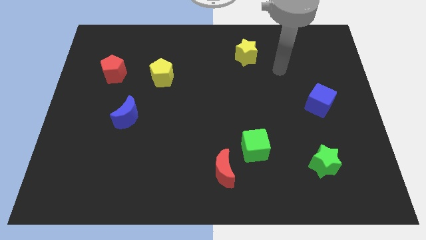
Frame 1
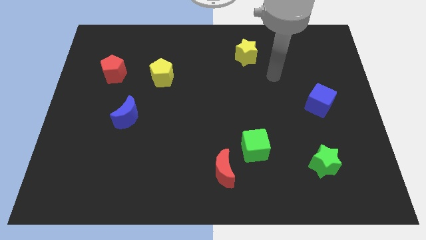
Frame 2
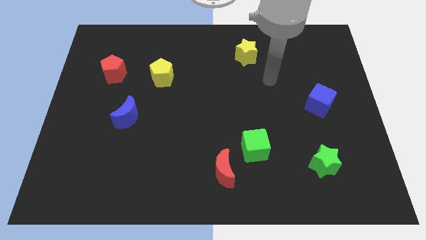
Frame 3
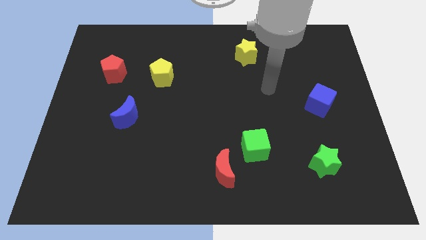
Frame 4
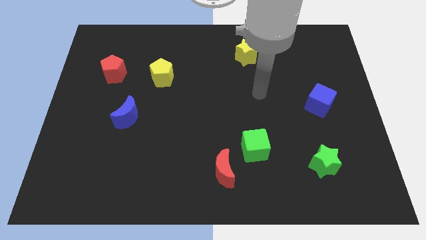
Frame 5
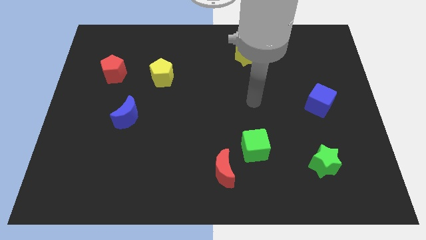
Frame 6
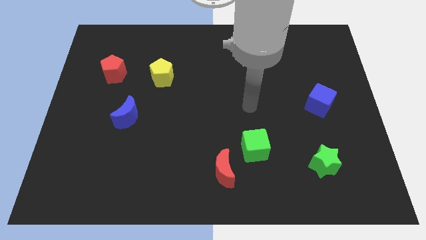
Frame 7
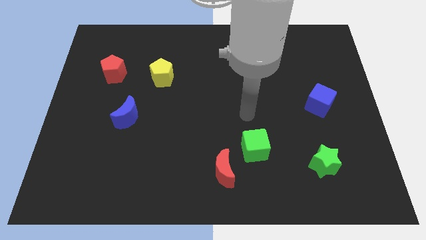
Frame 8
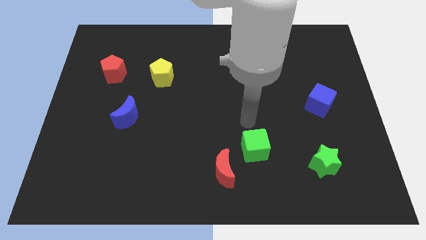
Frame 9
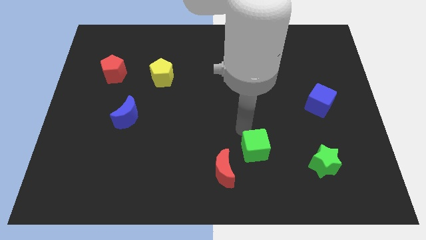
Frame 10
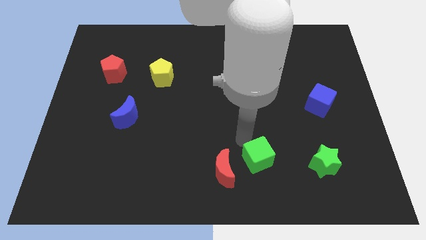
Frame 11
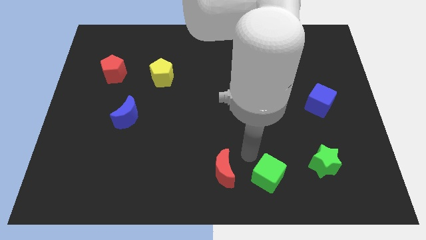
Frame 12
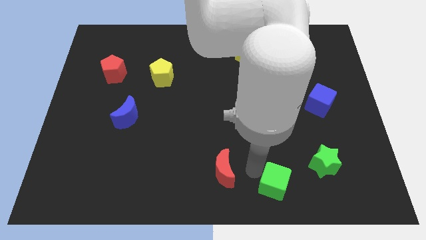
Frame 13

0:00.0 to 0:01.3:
pull the red moon apart from the green cube

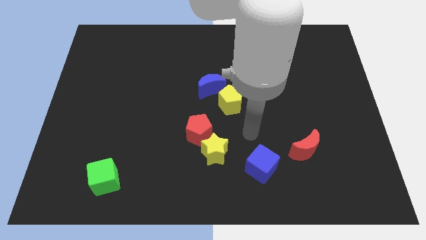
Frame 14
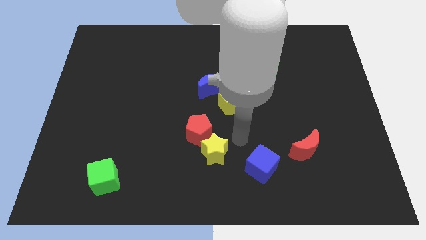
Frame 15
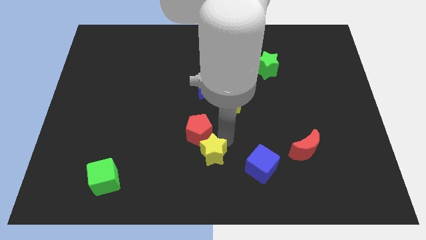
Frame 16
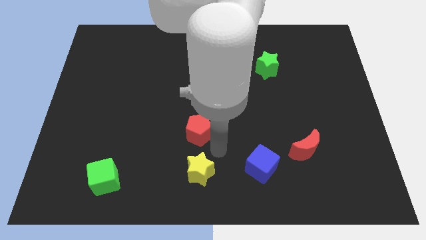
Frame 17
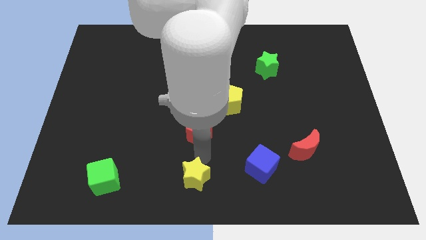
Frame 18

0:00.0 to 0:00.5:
pull the red pentagon apart from the yellow star

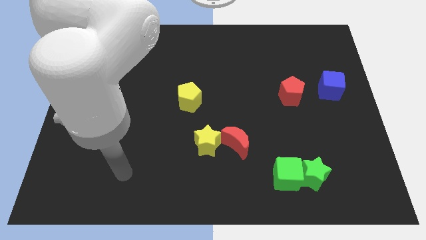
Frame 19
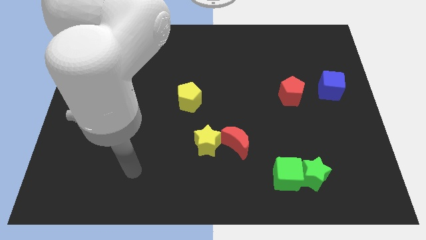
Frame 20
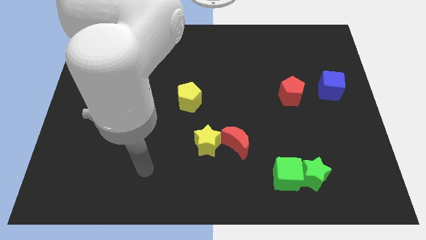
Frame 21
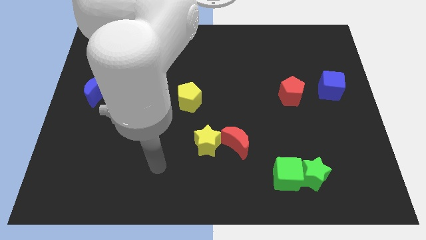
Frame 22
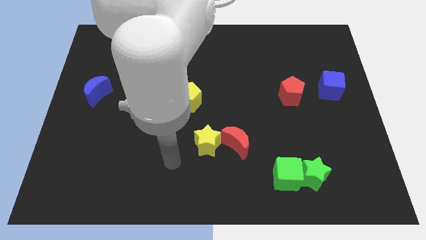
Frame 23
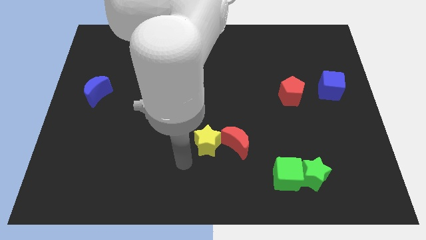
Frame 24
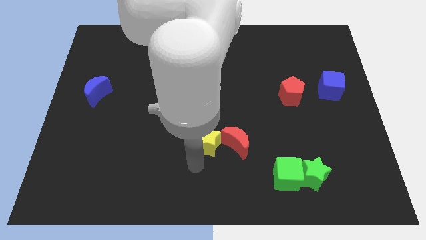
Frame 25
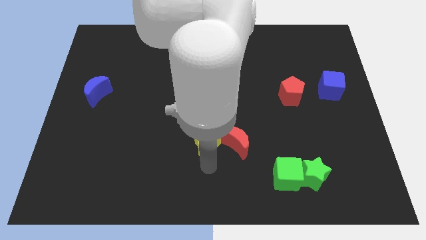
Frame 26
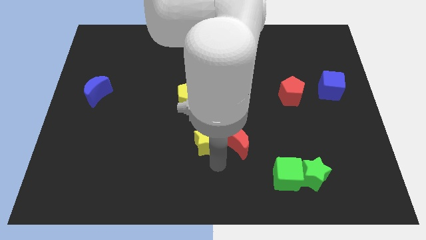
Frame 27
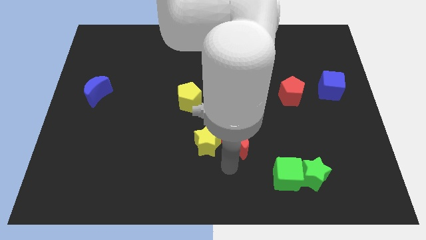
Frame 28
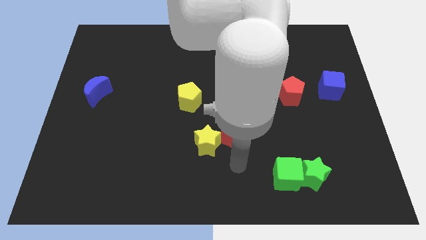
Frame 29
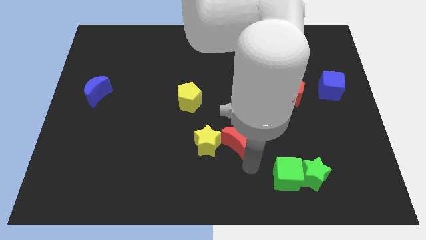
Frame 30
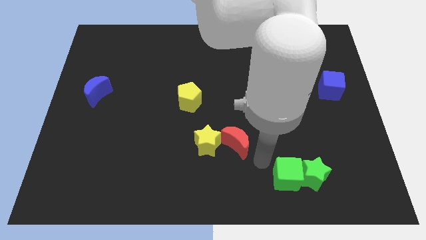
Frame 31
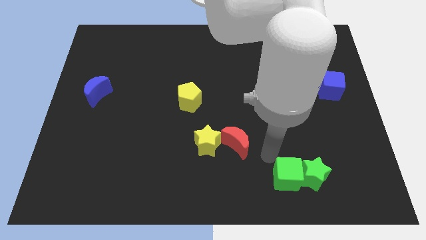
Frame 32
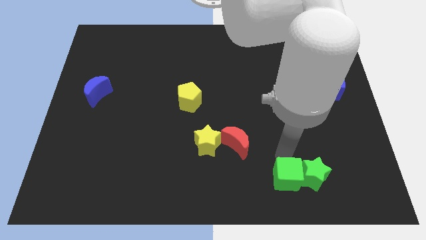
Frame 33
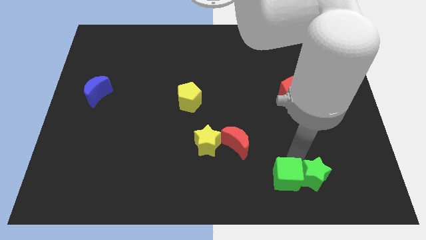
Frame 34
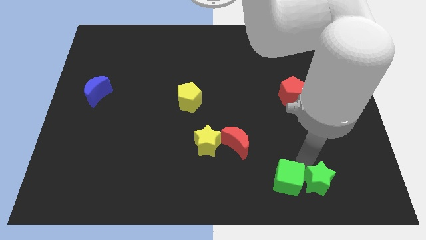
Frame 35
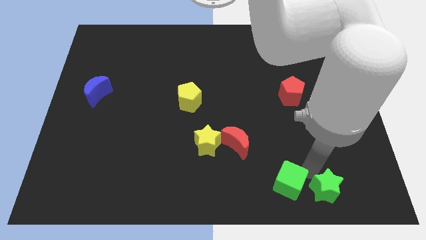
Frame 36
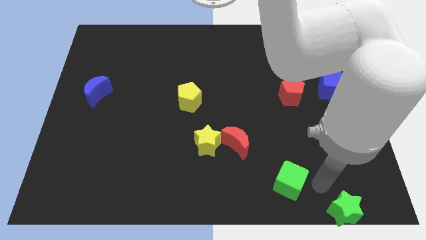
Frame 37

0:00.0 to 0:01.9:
separate the green cube from the green star

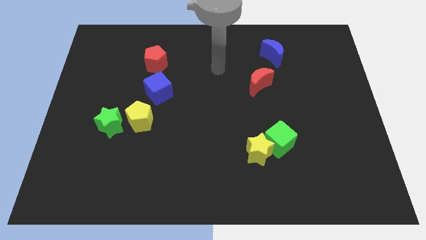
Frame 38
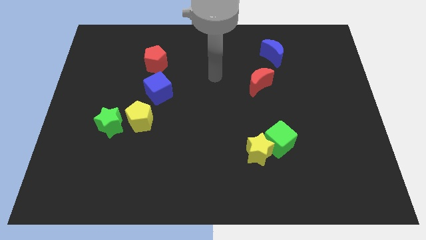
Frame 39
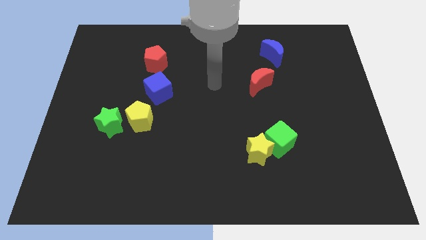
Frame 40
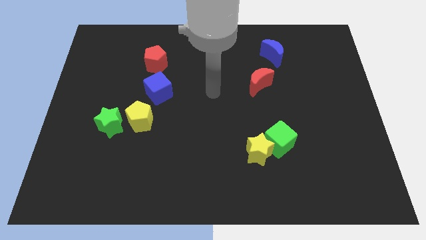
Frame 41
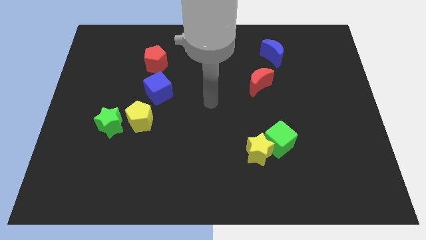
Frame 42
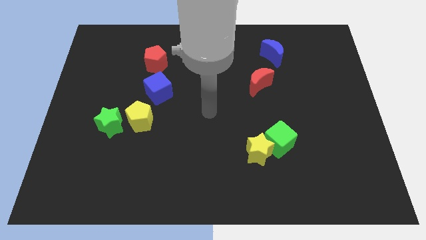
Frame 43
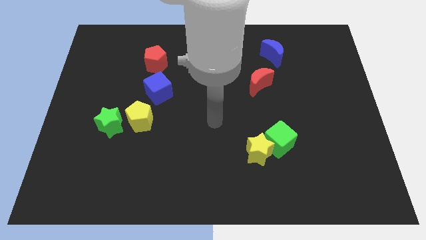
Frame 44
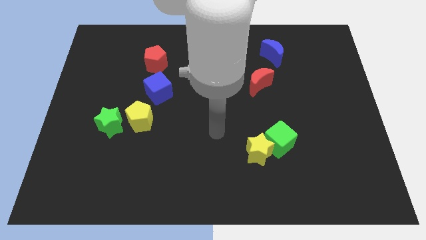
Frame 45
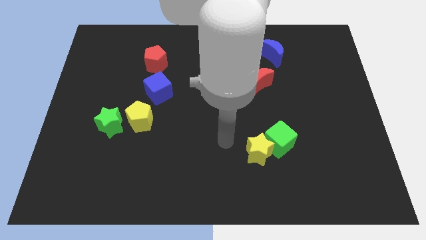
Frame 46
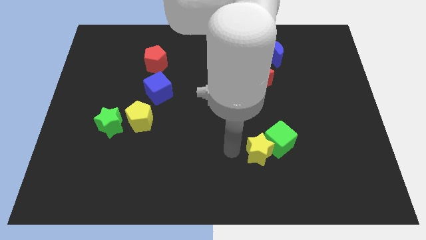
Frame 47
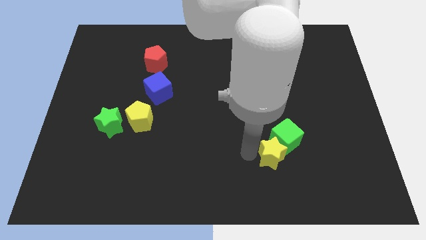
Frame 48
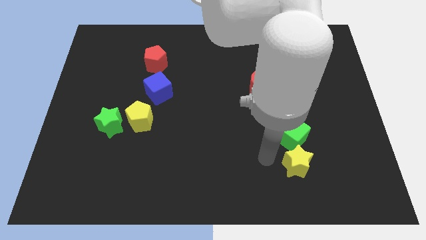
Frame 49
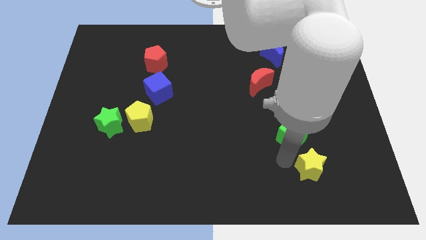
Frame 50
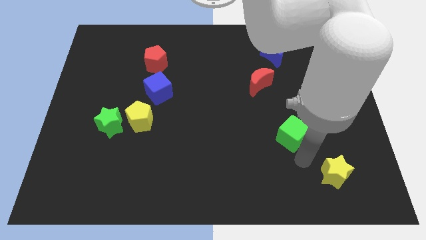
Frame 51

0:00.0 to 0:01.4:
pull the green cube apart from the yellow star

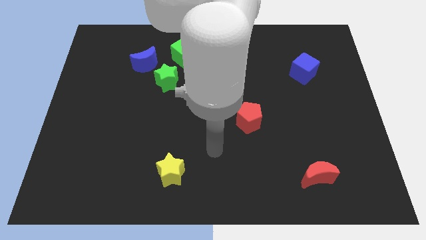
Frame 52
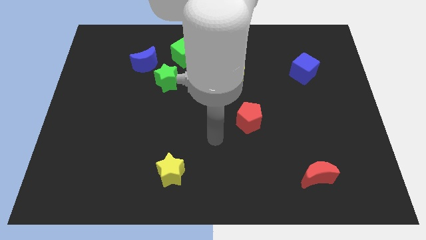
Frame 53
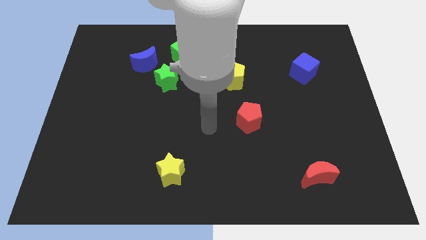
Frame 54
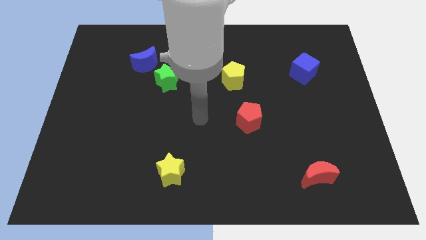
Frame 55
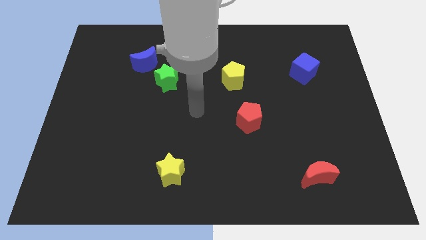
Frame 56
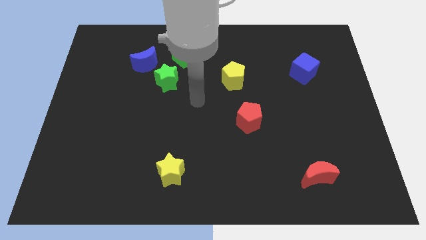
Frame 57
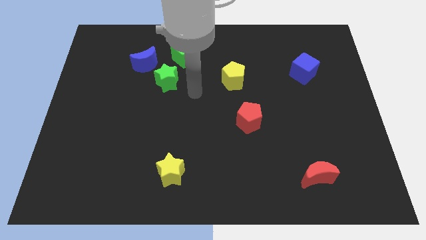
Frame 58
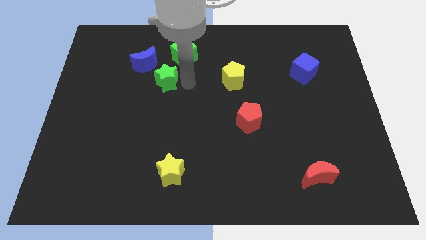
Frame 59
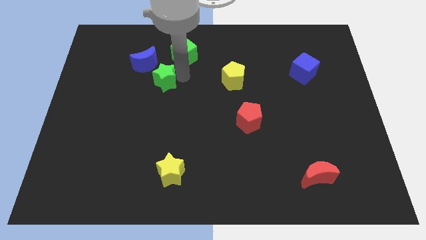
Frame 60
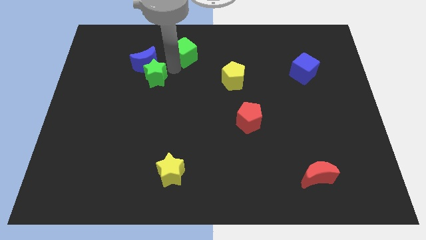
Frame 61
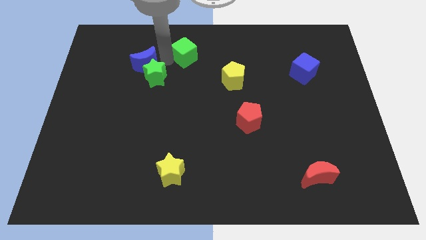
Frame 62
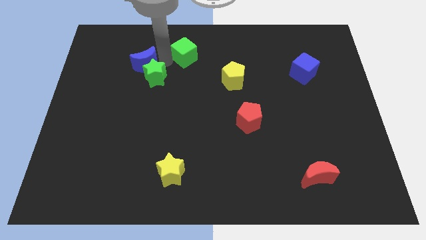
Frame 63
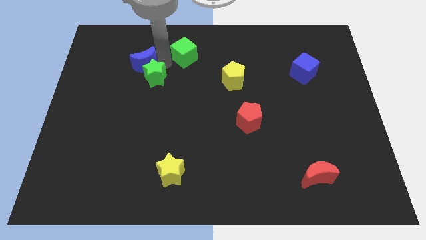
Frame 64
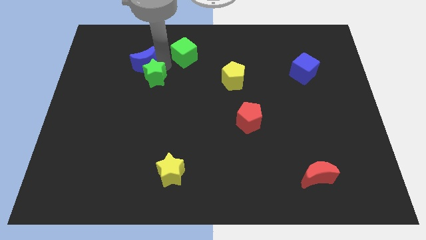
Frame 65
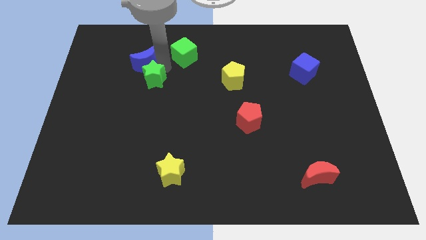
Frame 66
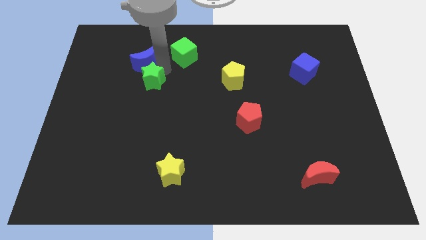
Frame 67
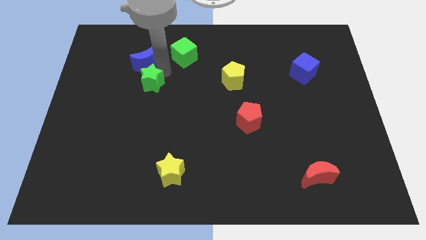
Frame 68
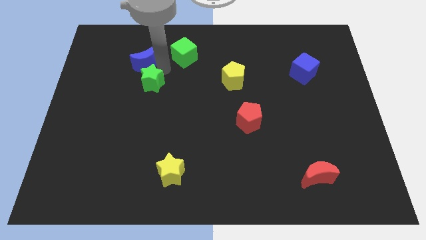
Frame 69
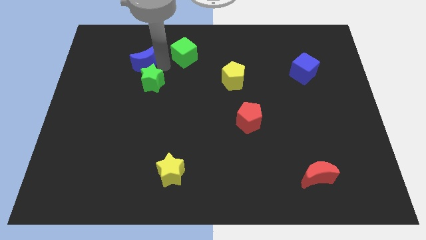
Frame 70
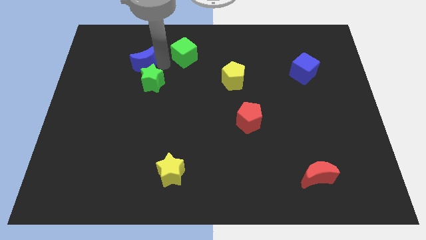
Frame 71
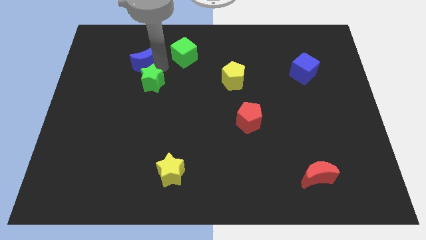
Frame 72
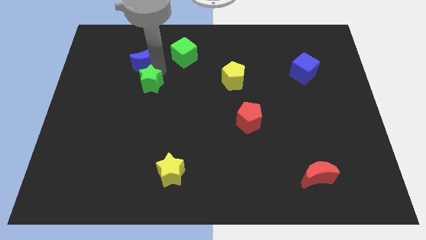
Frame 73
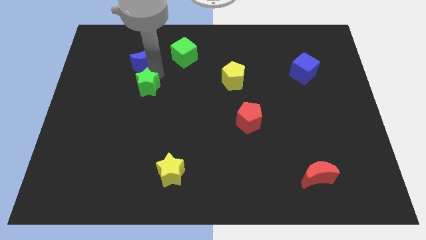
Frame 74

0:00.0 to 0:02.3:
pull the green star apart from the blue moon and green cube

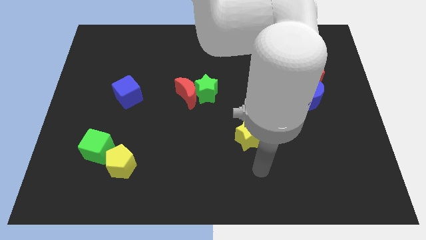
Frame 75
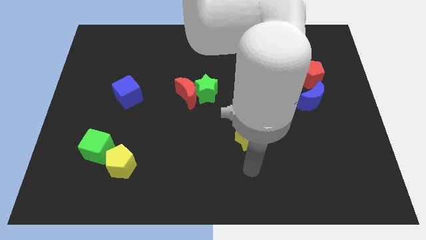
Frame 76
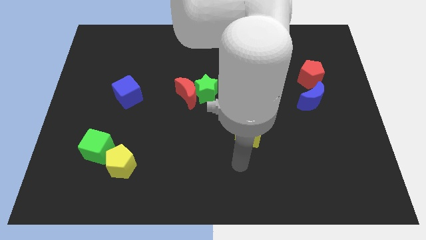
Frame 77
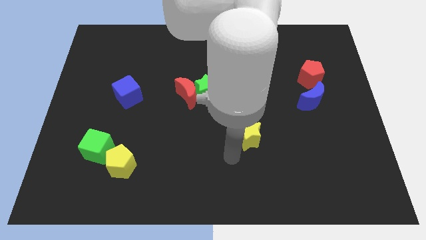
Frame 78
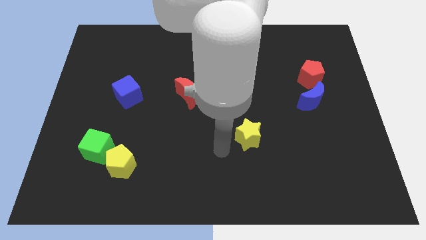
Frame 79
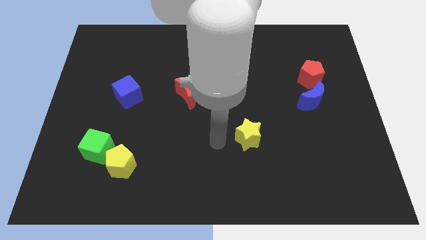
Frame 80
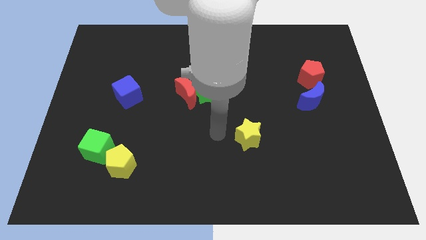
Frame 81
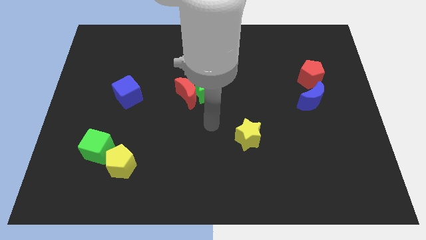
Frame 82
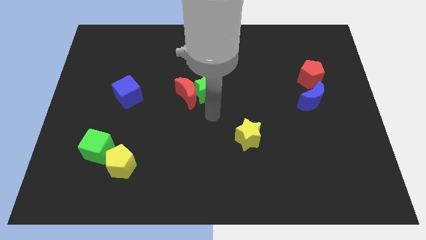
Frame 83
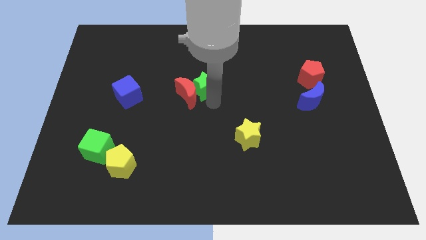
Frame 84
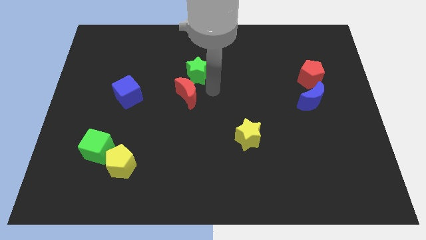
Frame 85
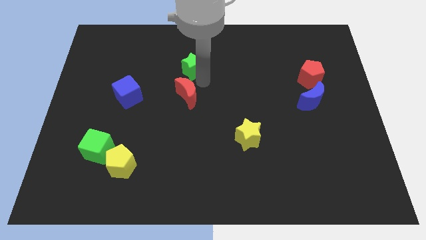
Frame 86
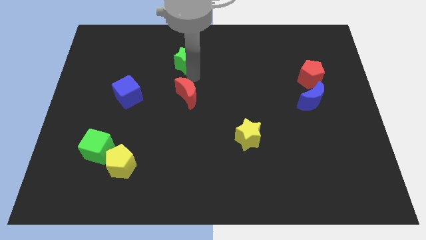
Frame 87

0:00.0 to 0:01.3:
separate the red moon from the green star

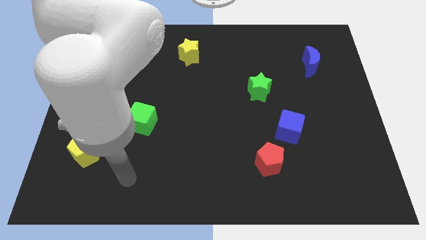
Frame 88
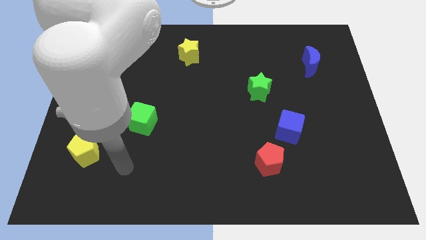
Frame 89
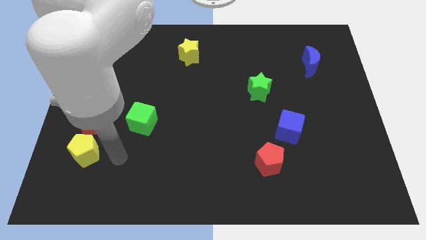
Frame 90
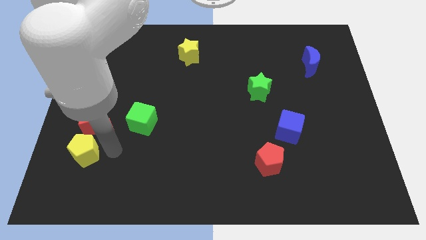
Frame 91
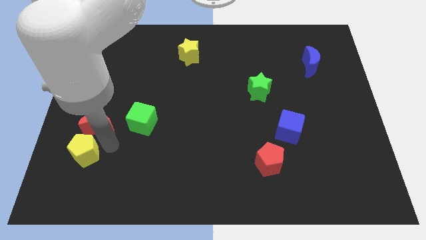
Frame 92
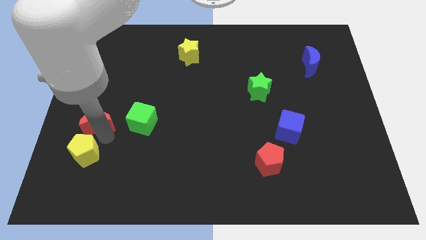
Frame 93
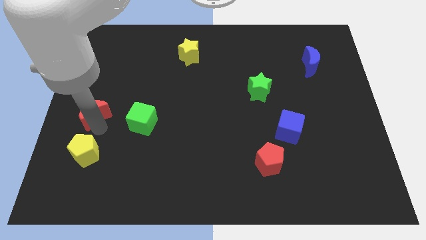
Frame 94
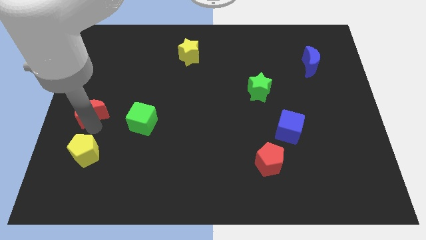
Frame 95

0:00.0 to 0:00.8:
move the yellow pentagon away from the red moon
